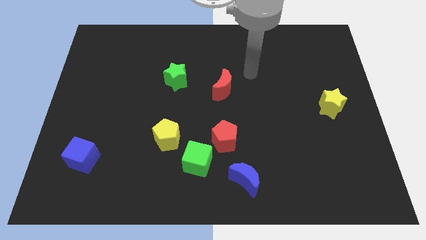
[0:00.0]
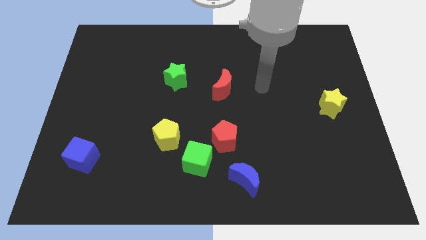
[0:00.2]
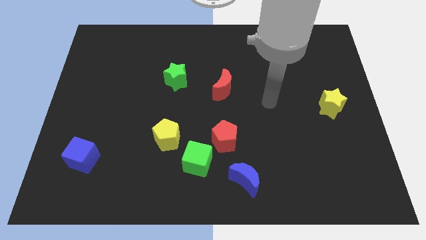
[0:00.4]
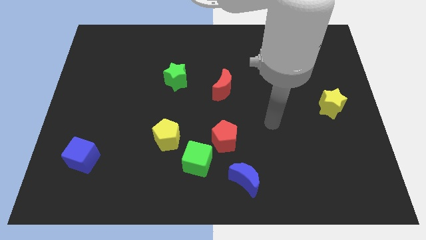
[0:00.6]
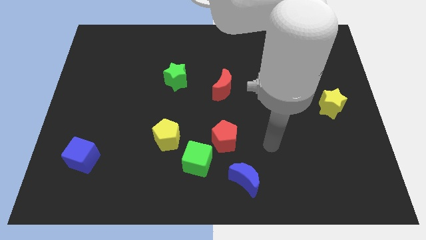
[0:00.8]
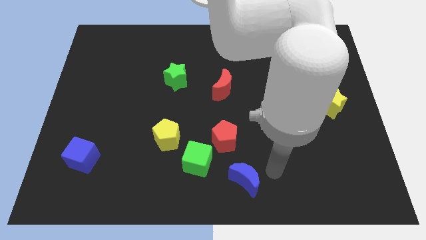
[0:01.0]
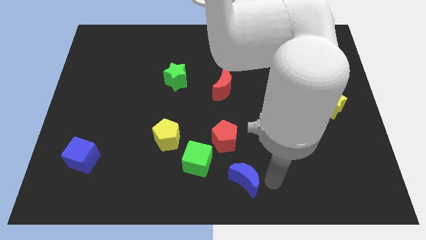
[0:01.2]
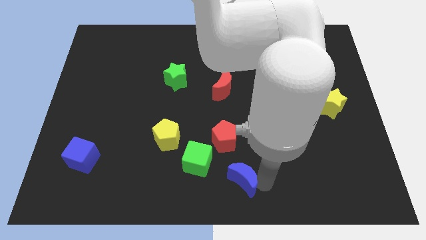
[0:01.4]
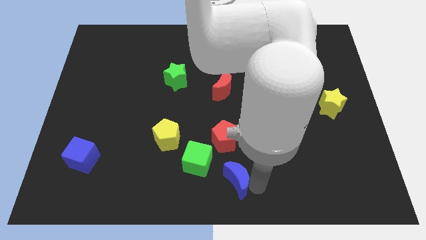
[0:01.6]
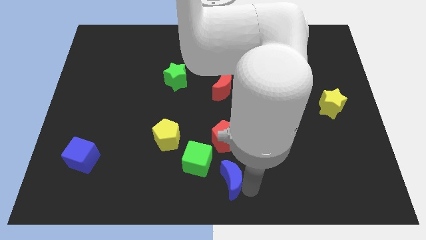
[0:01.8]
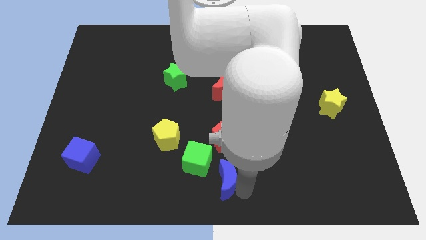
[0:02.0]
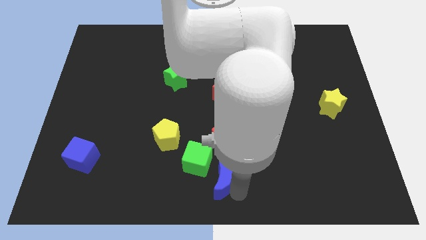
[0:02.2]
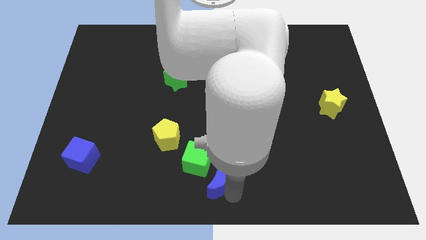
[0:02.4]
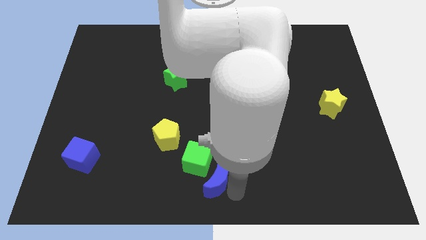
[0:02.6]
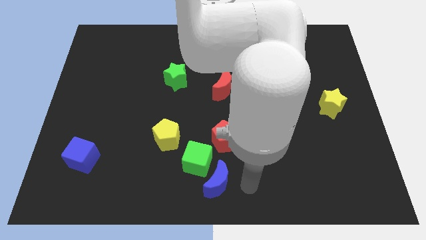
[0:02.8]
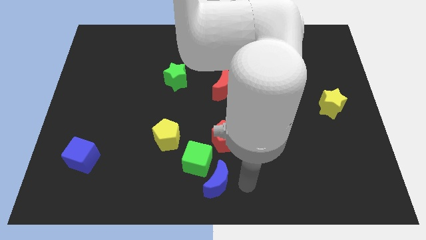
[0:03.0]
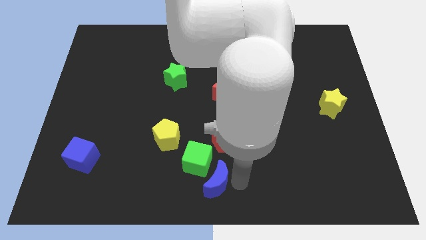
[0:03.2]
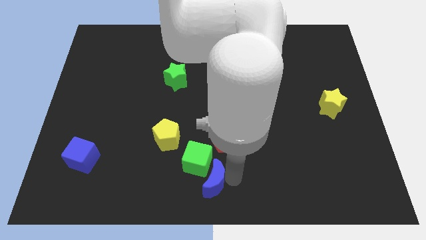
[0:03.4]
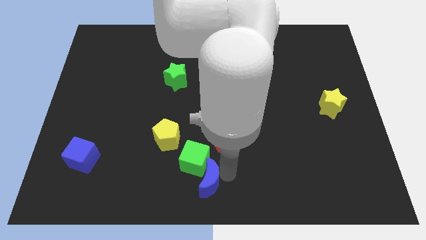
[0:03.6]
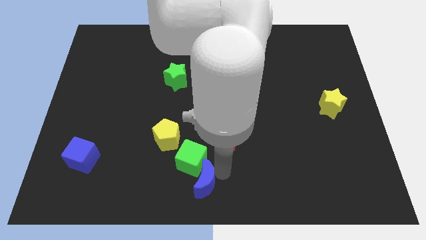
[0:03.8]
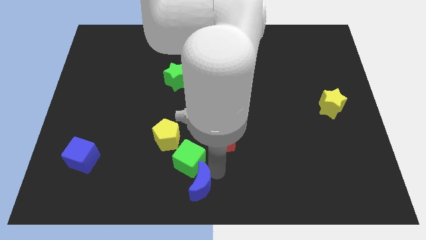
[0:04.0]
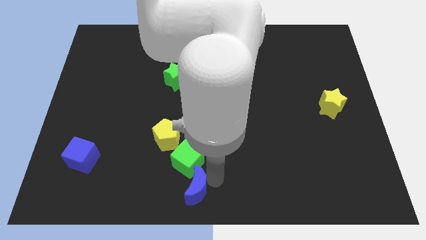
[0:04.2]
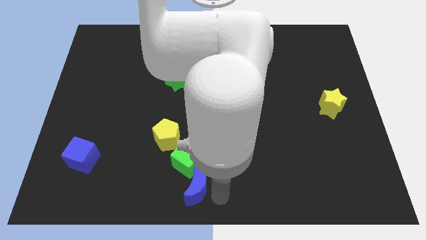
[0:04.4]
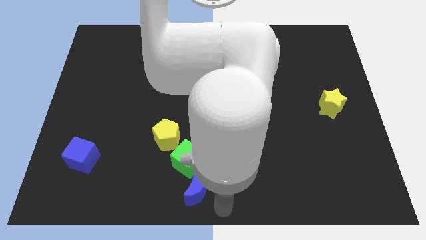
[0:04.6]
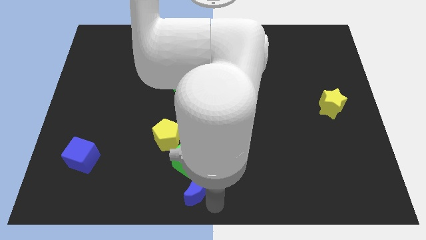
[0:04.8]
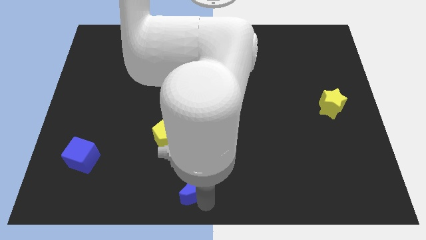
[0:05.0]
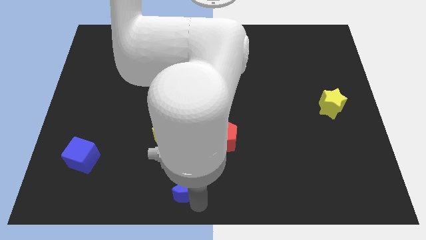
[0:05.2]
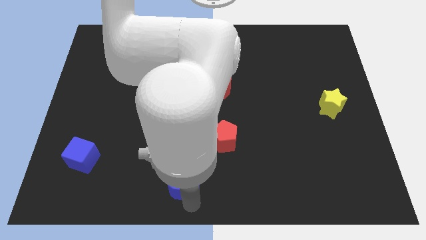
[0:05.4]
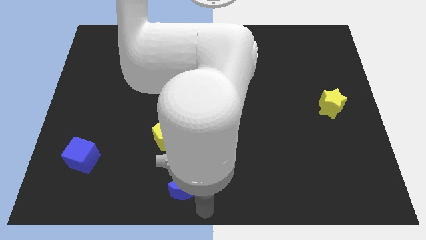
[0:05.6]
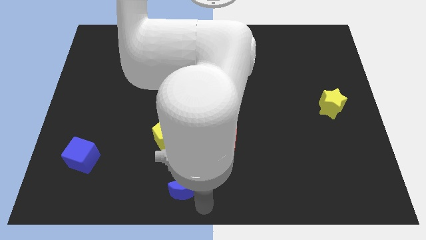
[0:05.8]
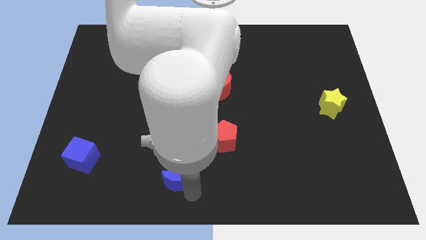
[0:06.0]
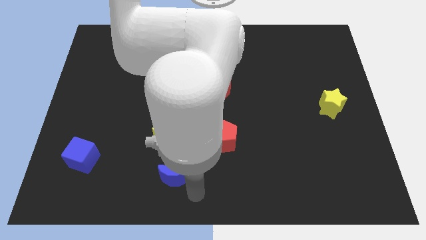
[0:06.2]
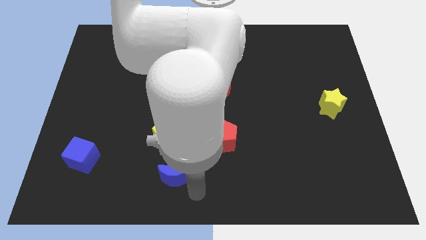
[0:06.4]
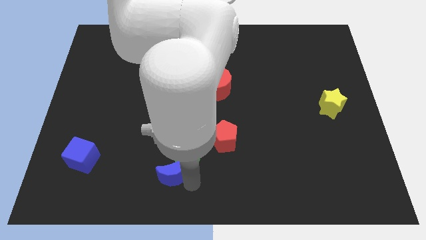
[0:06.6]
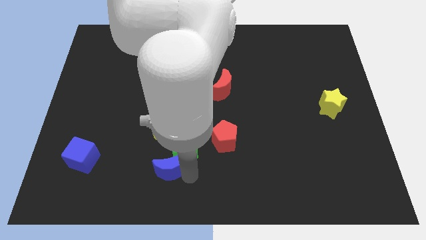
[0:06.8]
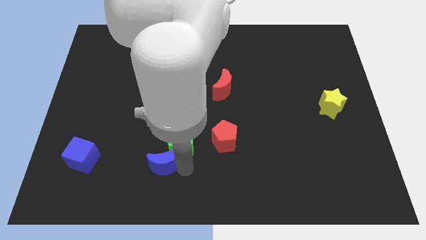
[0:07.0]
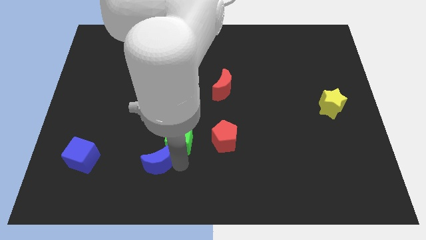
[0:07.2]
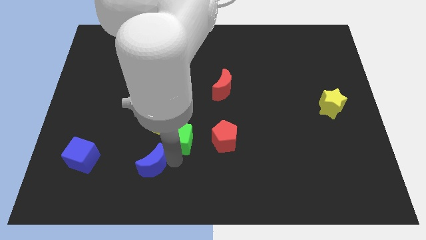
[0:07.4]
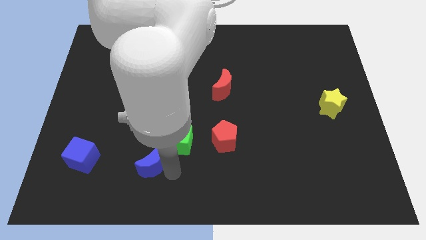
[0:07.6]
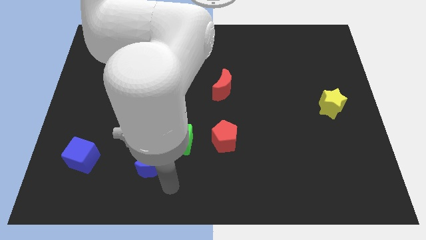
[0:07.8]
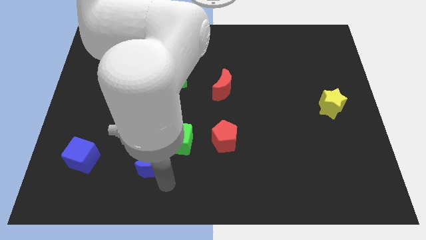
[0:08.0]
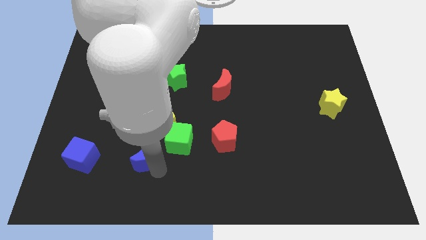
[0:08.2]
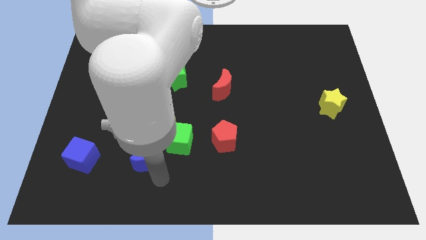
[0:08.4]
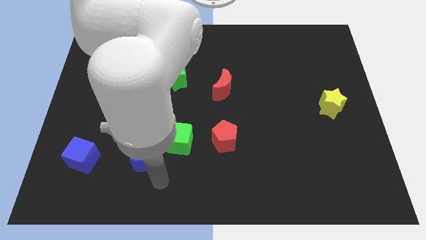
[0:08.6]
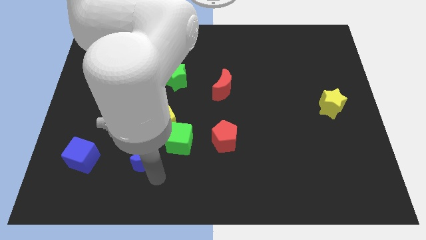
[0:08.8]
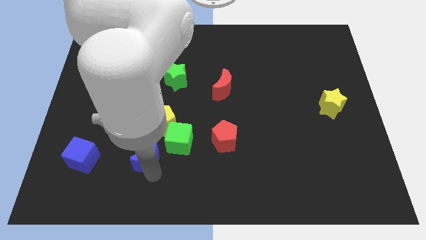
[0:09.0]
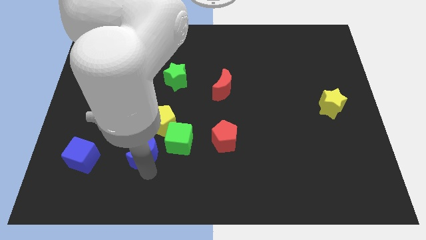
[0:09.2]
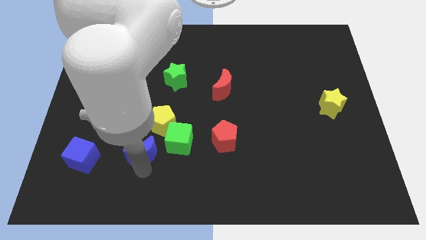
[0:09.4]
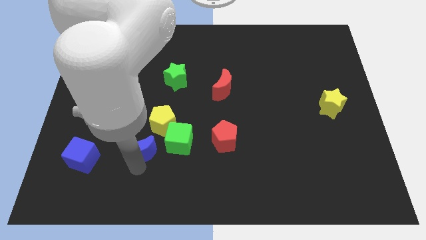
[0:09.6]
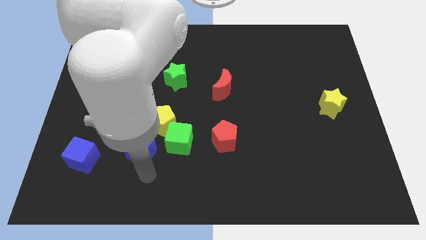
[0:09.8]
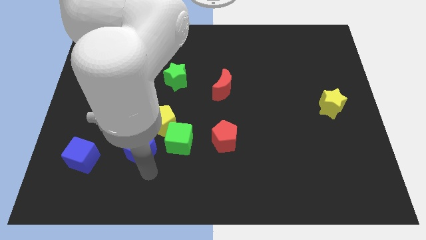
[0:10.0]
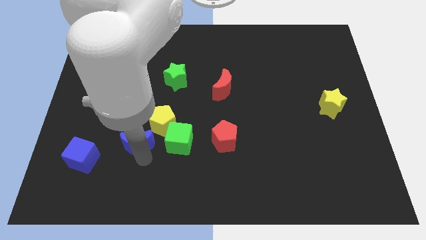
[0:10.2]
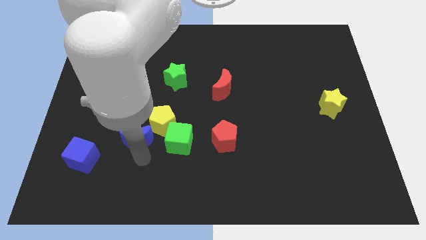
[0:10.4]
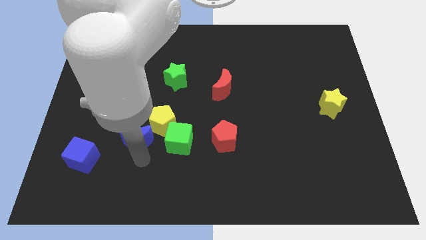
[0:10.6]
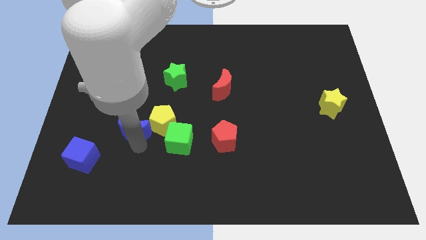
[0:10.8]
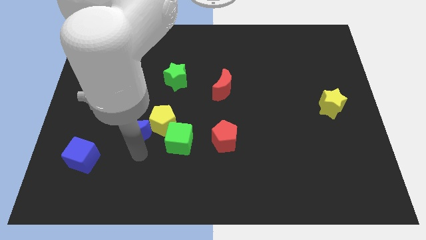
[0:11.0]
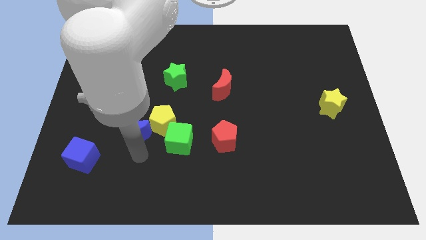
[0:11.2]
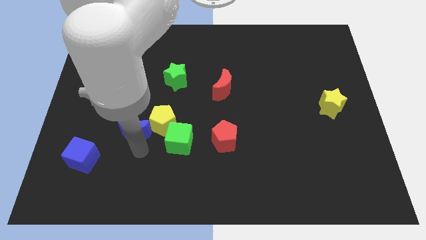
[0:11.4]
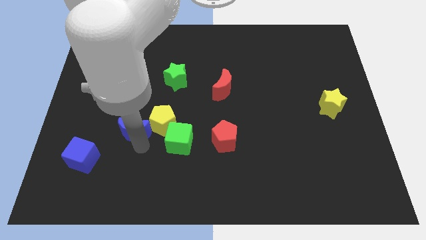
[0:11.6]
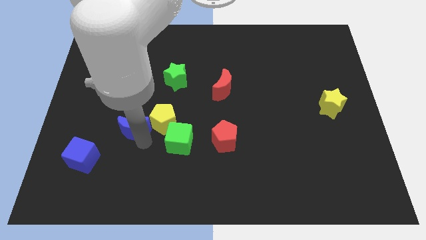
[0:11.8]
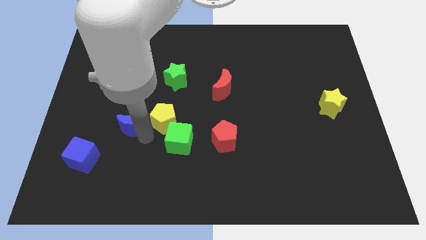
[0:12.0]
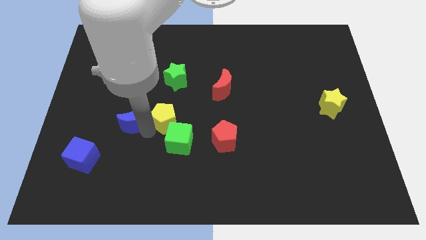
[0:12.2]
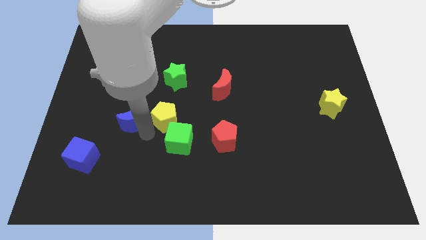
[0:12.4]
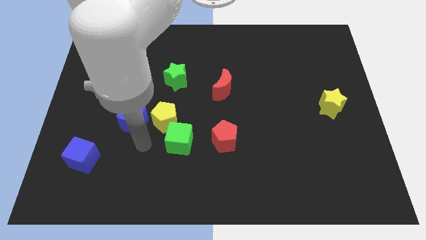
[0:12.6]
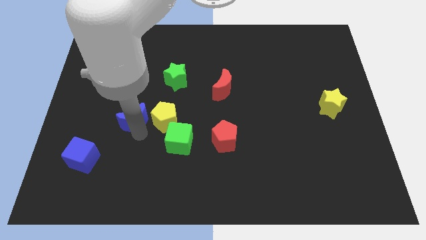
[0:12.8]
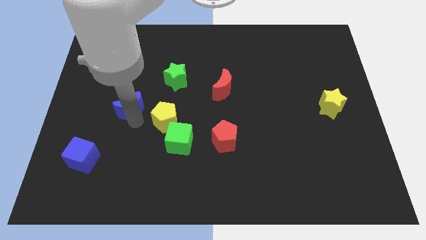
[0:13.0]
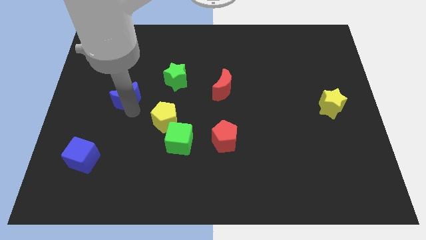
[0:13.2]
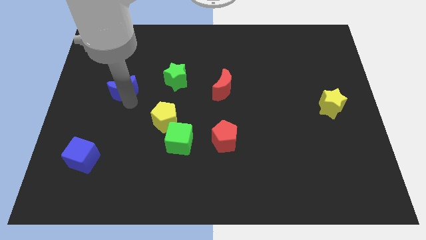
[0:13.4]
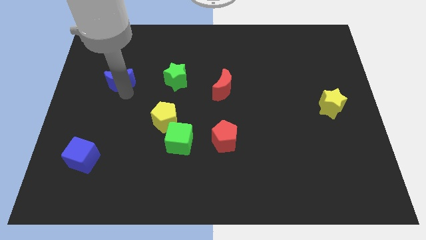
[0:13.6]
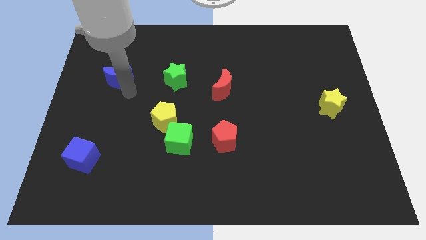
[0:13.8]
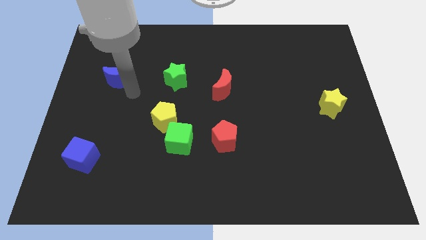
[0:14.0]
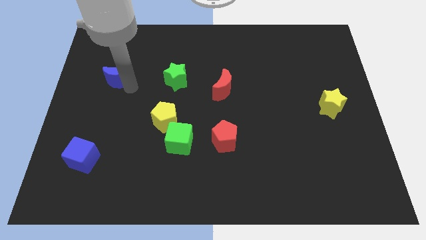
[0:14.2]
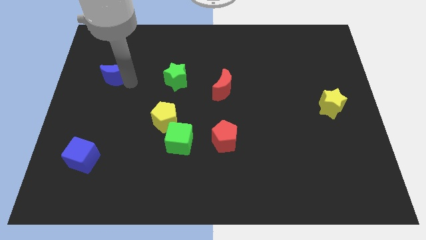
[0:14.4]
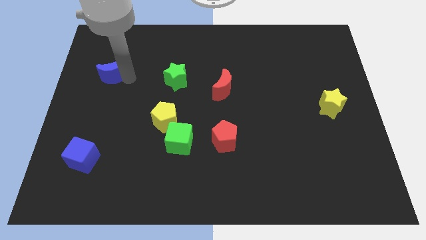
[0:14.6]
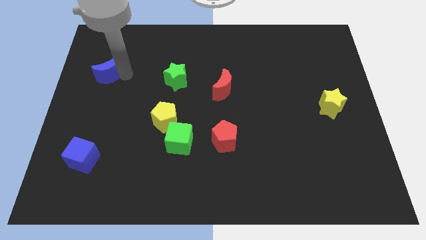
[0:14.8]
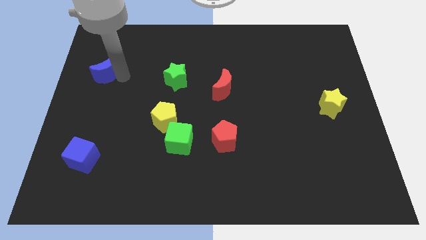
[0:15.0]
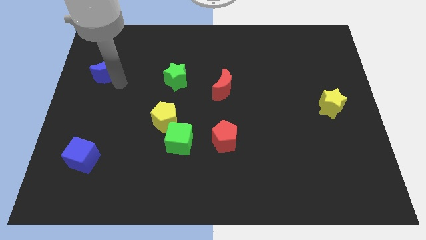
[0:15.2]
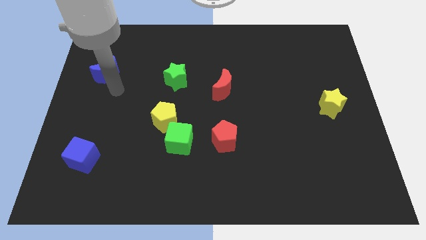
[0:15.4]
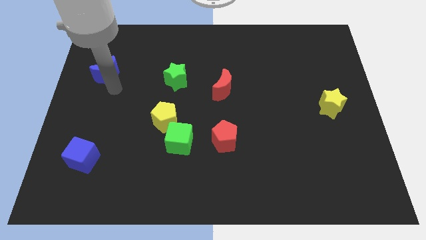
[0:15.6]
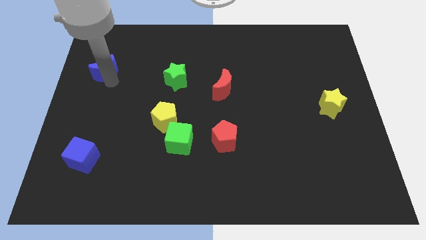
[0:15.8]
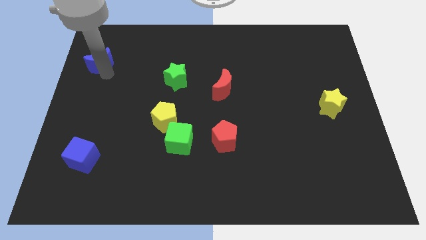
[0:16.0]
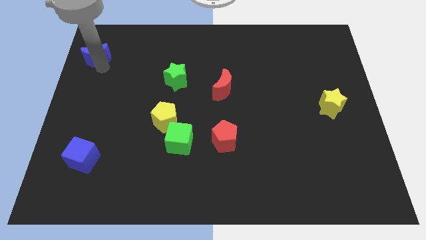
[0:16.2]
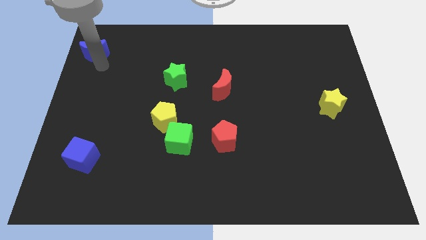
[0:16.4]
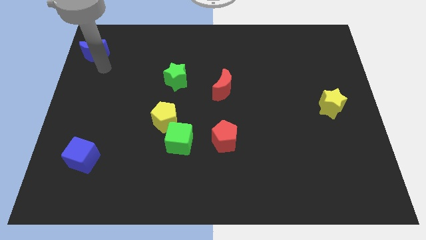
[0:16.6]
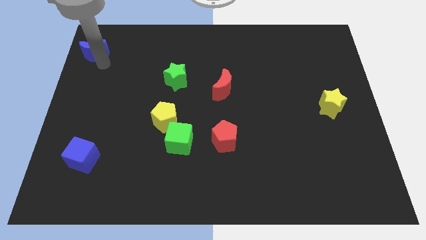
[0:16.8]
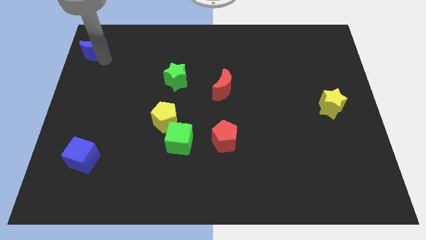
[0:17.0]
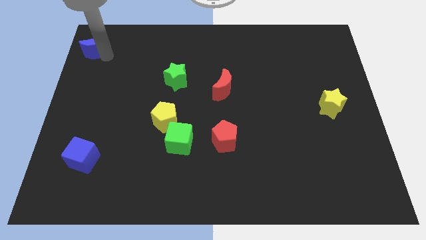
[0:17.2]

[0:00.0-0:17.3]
push the blue moon to the top left of the board
